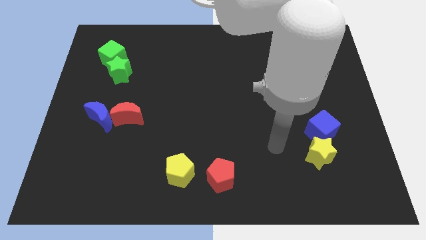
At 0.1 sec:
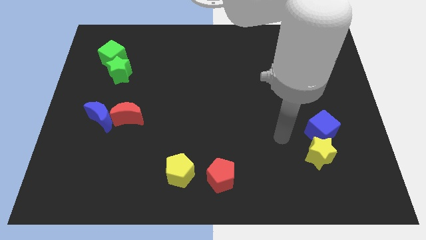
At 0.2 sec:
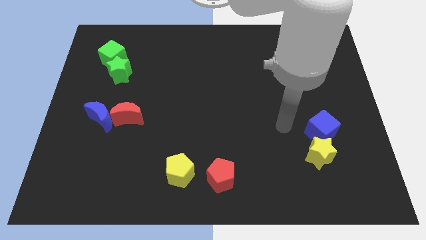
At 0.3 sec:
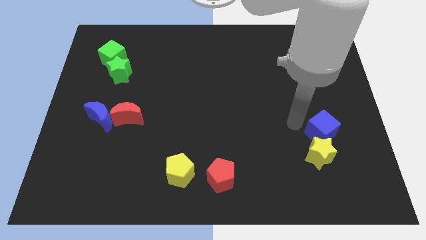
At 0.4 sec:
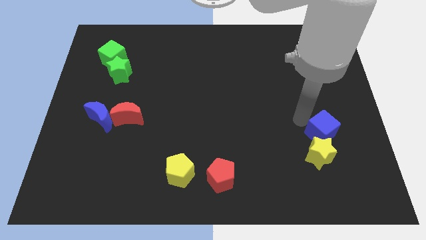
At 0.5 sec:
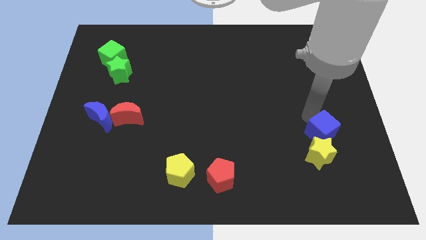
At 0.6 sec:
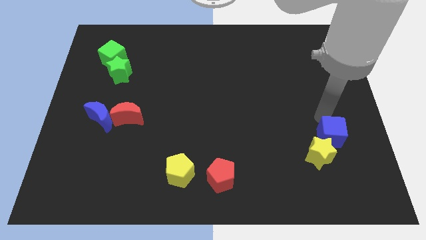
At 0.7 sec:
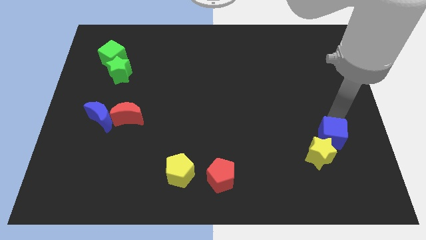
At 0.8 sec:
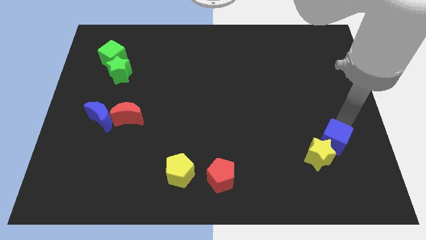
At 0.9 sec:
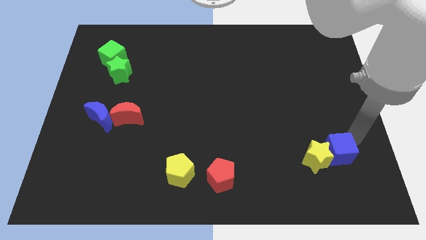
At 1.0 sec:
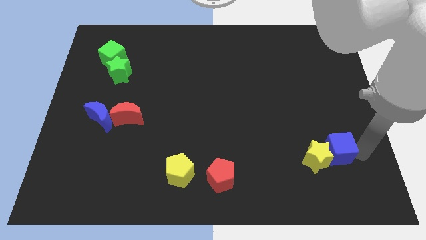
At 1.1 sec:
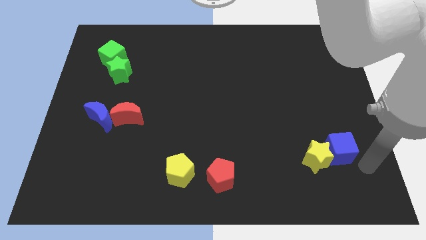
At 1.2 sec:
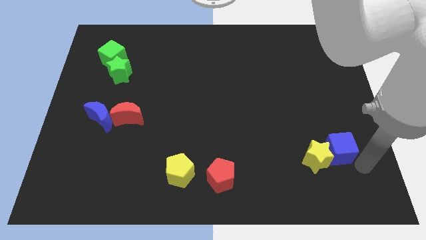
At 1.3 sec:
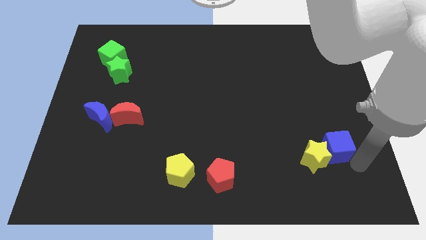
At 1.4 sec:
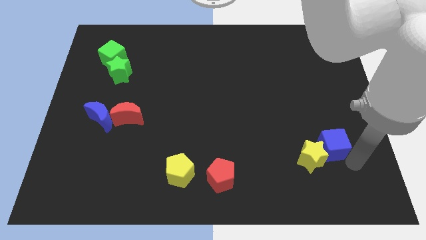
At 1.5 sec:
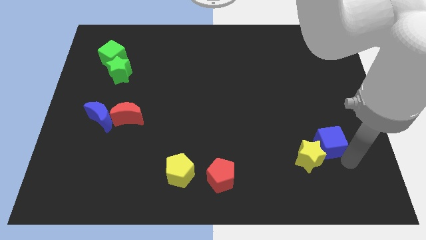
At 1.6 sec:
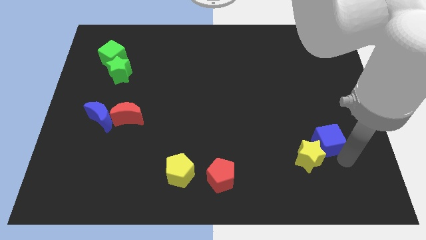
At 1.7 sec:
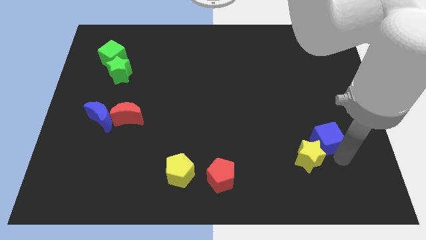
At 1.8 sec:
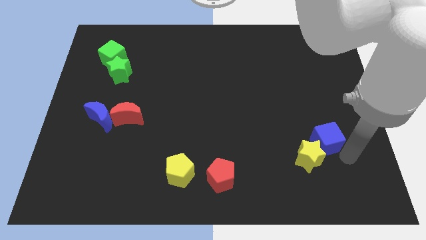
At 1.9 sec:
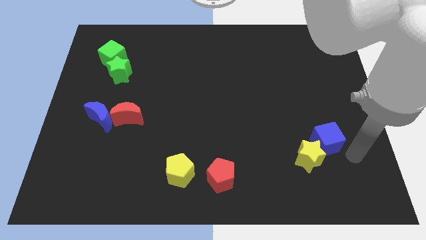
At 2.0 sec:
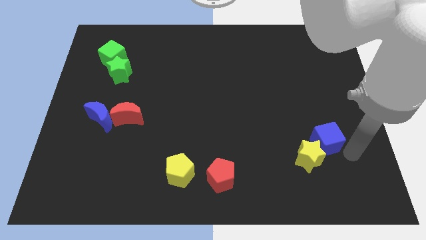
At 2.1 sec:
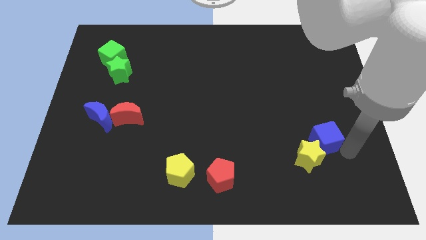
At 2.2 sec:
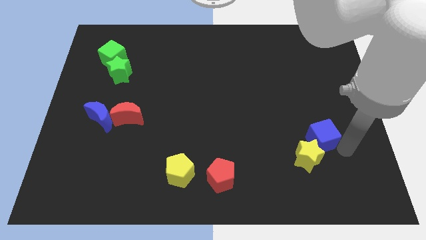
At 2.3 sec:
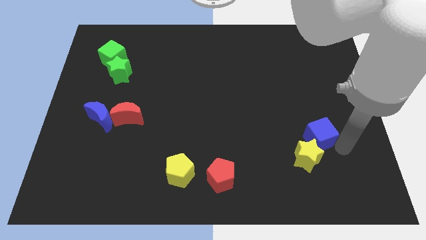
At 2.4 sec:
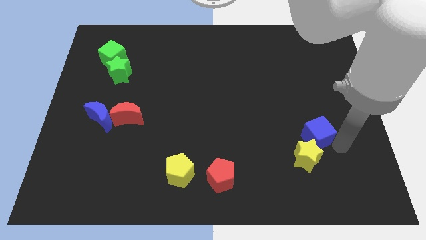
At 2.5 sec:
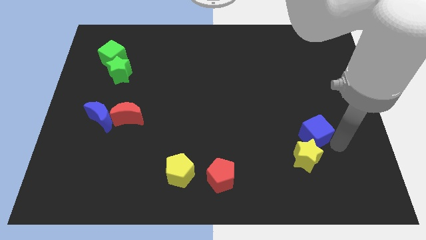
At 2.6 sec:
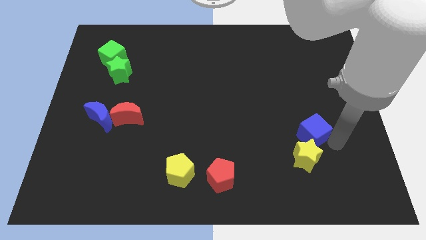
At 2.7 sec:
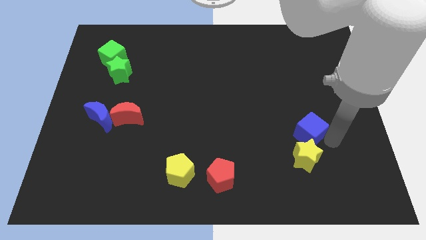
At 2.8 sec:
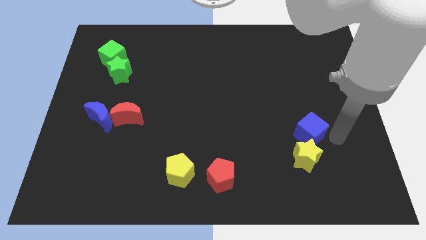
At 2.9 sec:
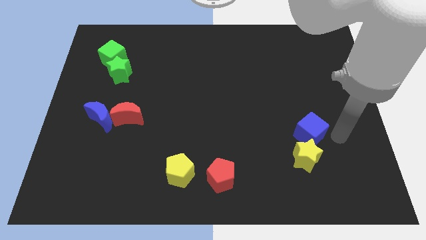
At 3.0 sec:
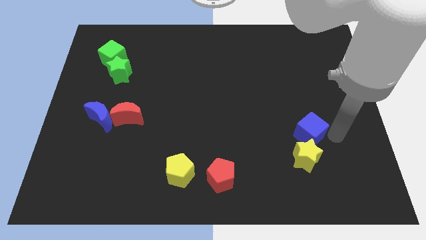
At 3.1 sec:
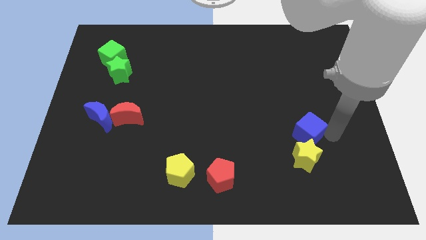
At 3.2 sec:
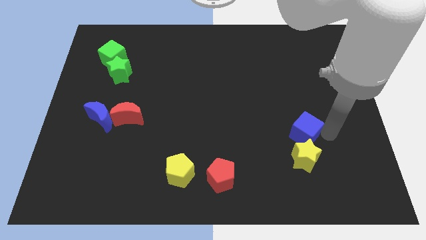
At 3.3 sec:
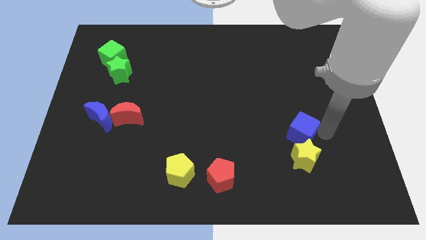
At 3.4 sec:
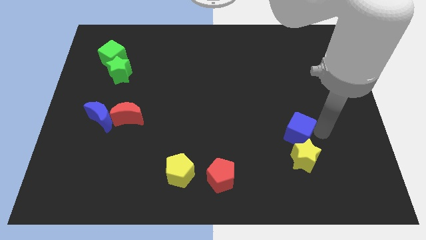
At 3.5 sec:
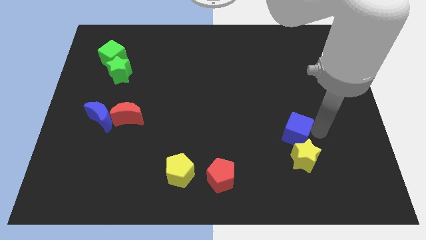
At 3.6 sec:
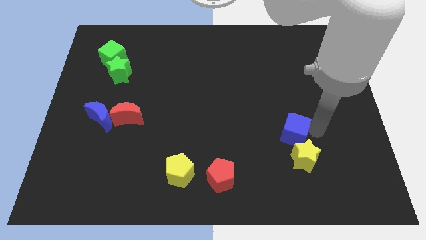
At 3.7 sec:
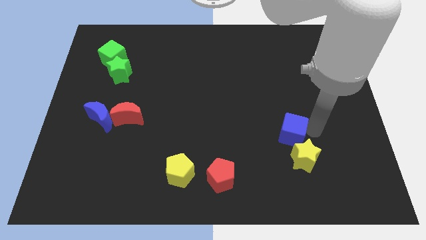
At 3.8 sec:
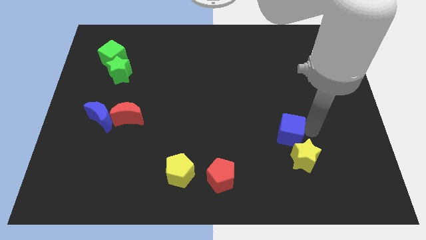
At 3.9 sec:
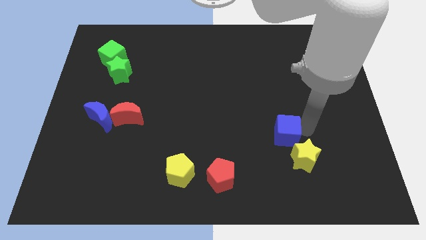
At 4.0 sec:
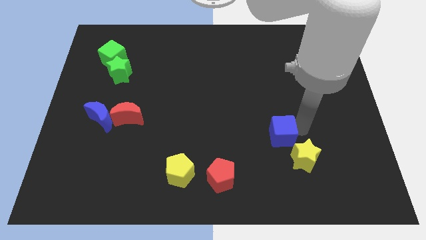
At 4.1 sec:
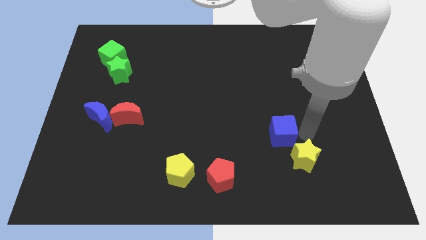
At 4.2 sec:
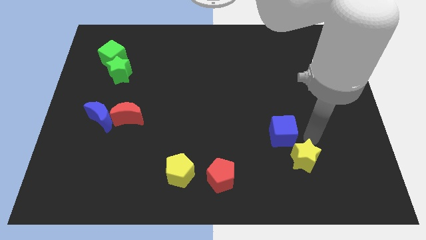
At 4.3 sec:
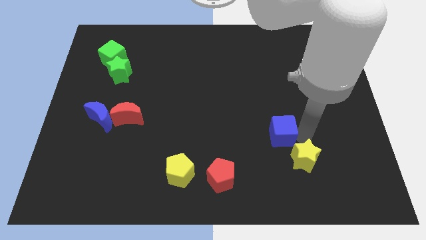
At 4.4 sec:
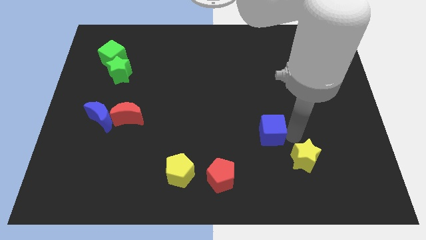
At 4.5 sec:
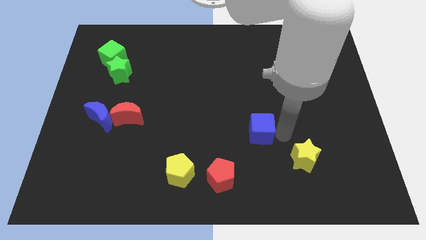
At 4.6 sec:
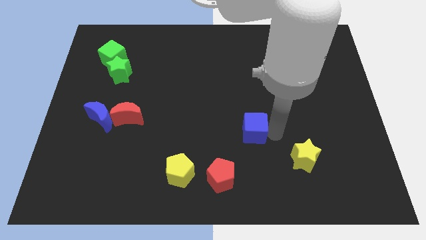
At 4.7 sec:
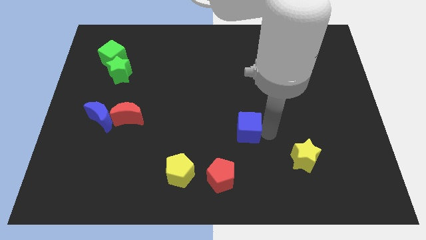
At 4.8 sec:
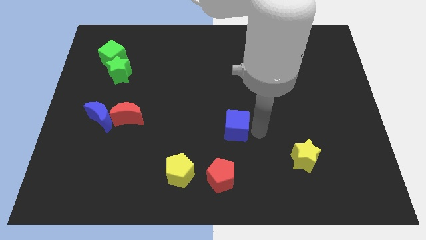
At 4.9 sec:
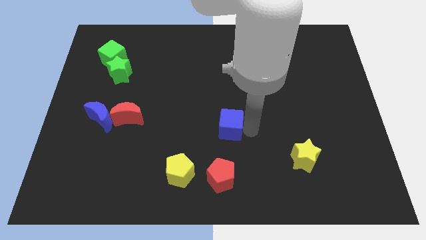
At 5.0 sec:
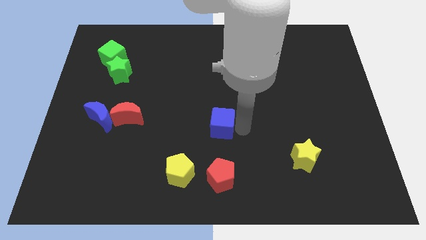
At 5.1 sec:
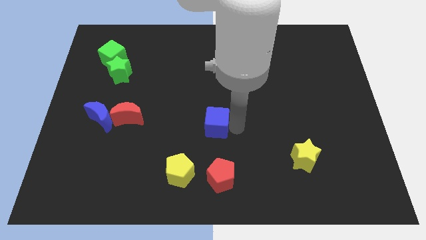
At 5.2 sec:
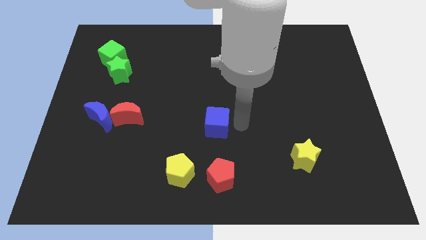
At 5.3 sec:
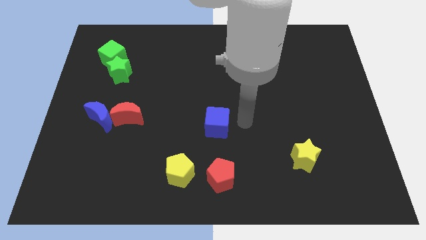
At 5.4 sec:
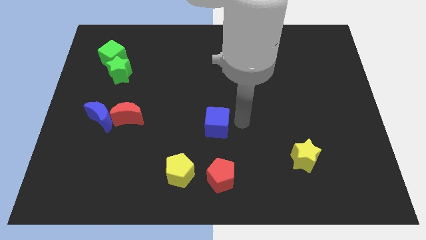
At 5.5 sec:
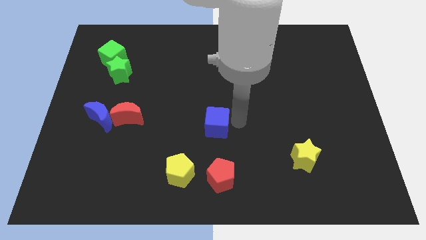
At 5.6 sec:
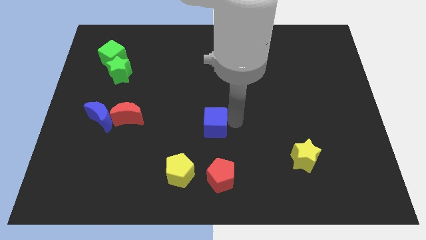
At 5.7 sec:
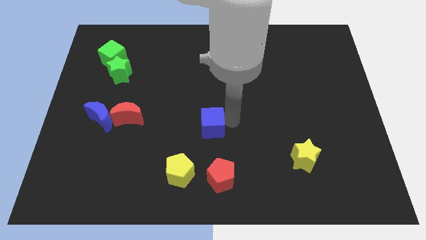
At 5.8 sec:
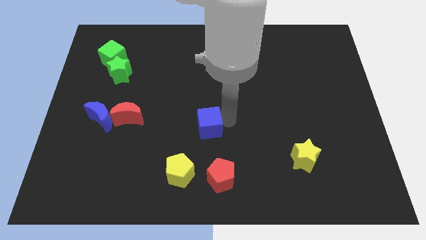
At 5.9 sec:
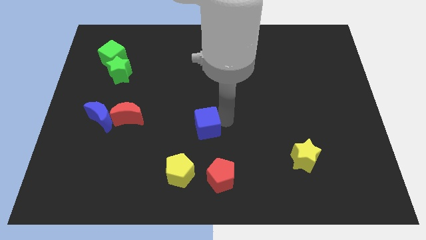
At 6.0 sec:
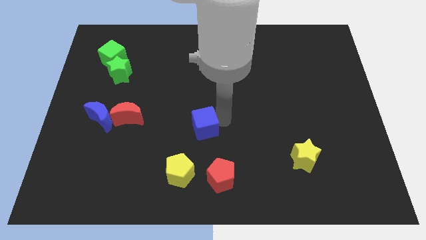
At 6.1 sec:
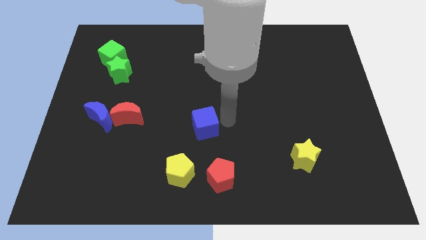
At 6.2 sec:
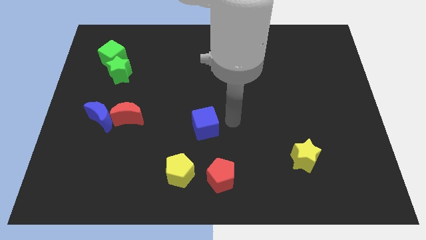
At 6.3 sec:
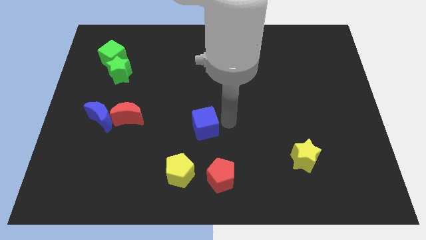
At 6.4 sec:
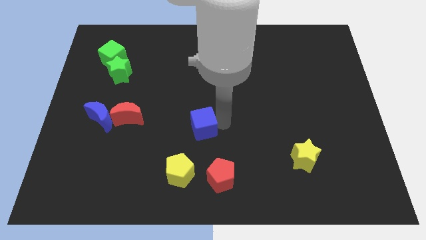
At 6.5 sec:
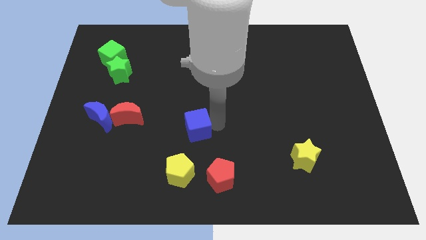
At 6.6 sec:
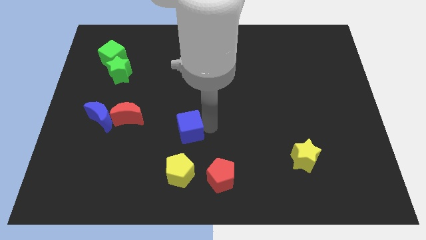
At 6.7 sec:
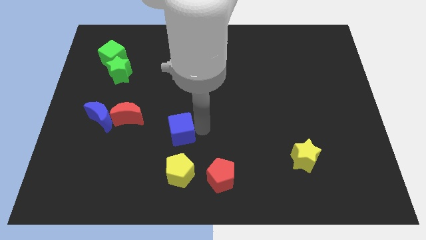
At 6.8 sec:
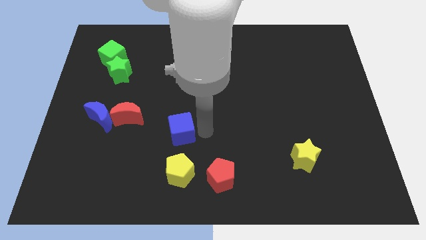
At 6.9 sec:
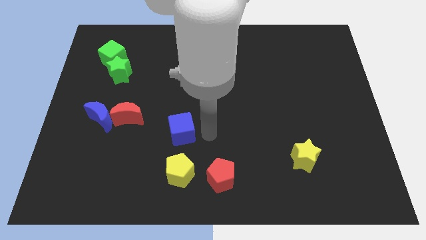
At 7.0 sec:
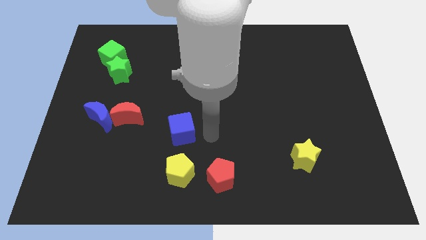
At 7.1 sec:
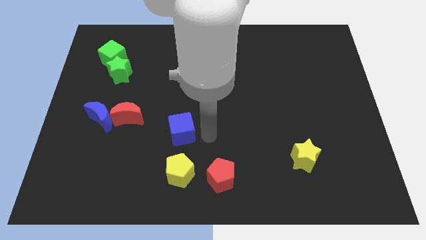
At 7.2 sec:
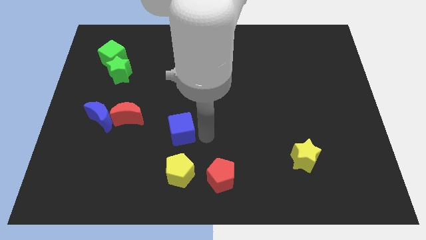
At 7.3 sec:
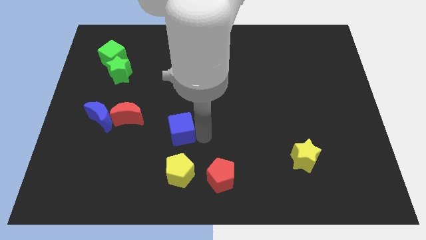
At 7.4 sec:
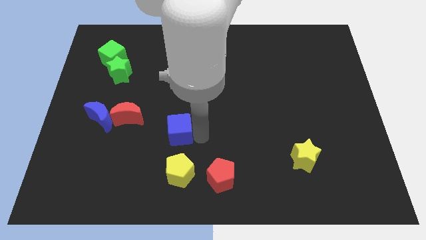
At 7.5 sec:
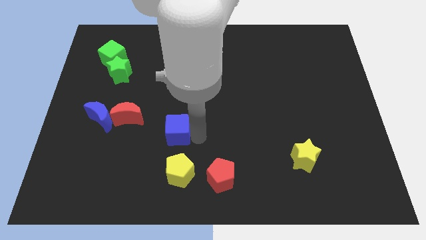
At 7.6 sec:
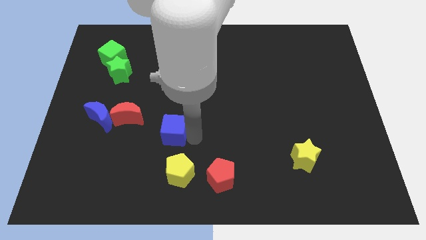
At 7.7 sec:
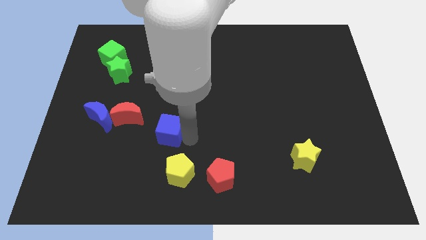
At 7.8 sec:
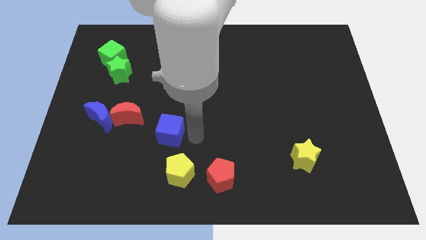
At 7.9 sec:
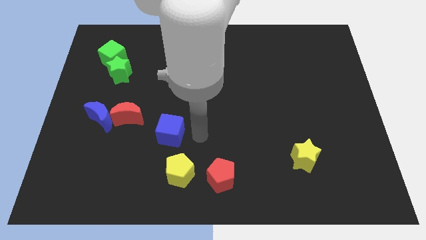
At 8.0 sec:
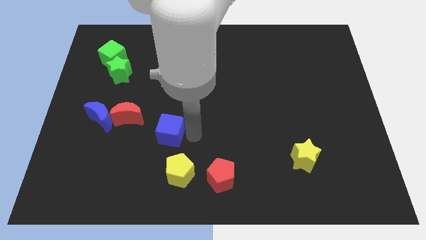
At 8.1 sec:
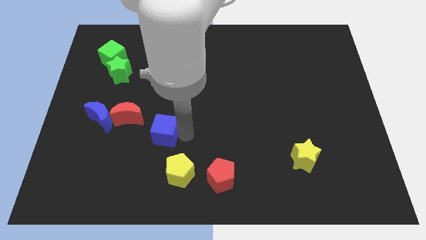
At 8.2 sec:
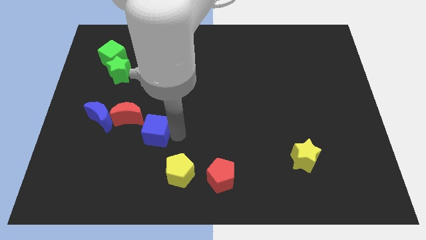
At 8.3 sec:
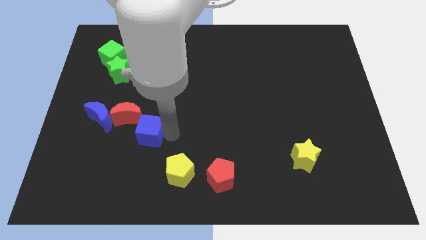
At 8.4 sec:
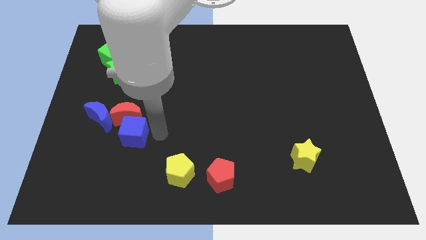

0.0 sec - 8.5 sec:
slide the blue cube diagonally down and to the left of the red moon
